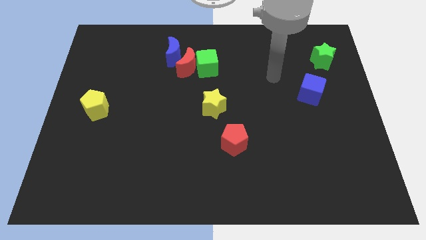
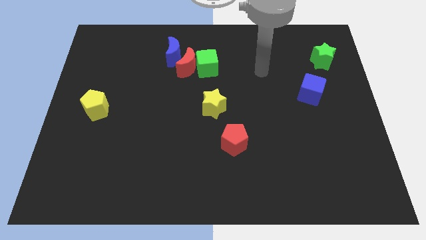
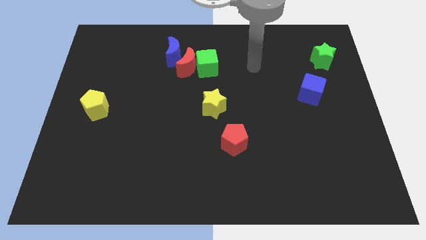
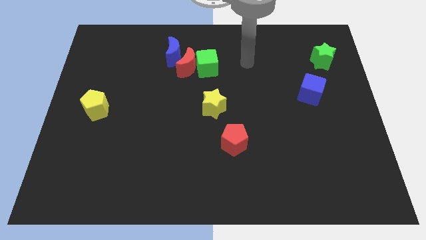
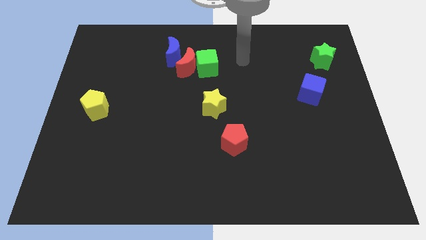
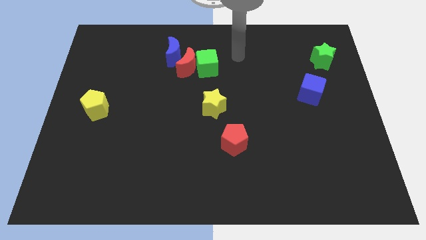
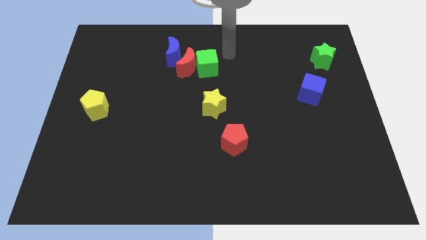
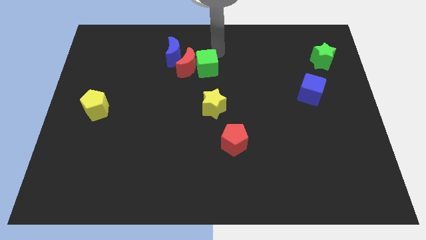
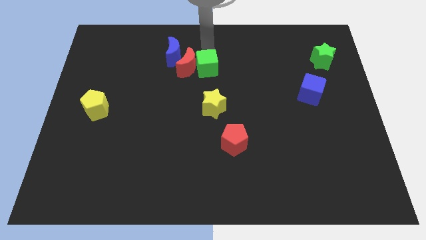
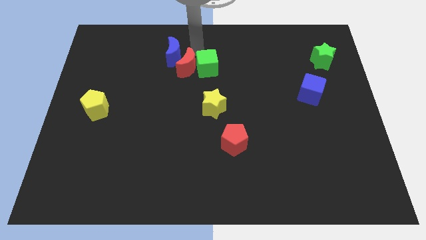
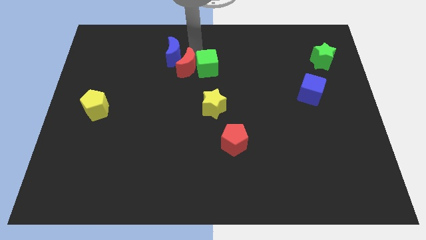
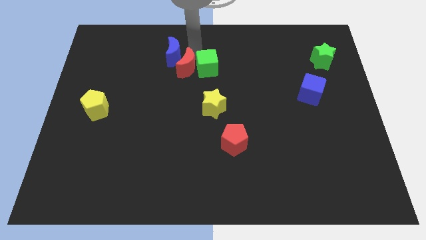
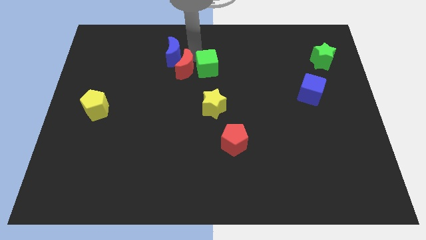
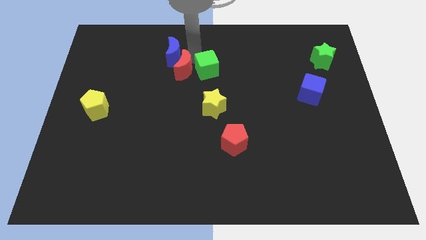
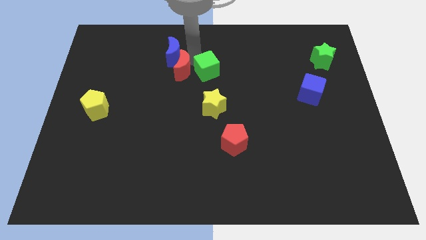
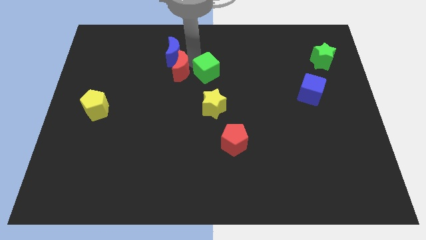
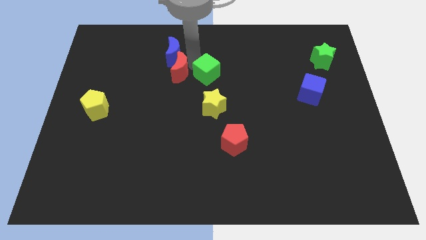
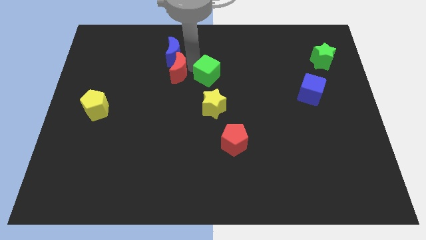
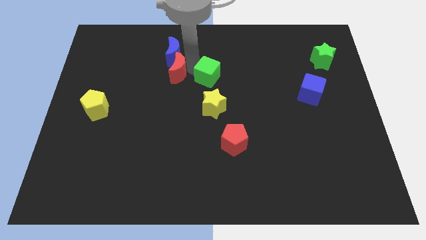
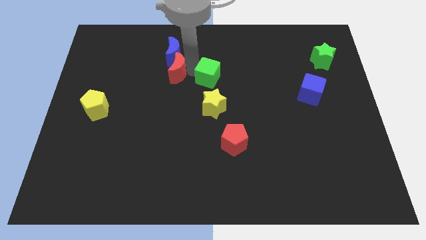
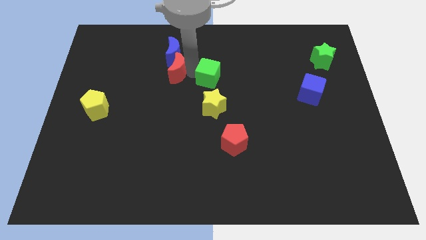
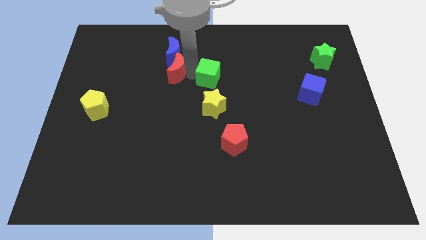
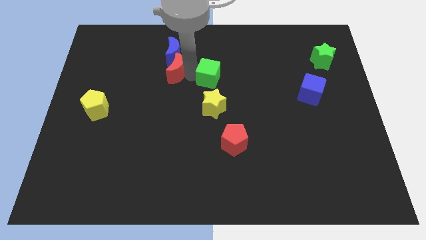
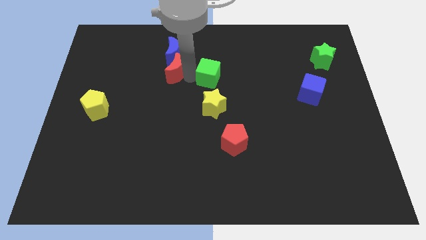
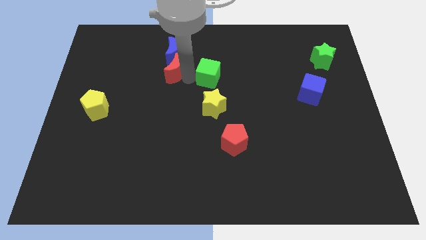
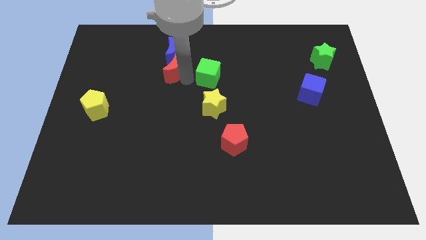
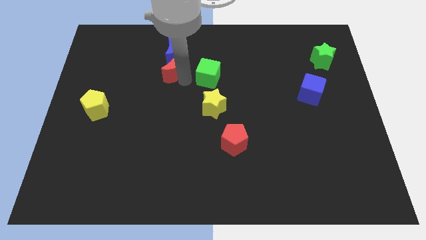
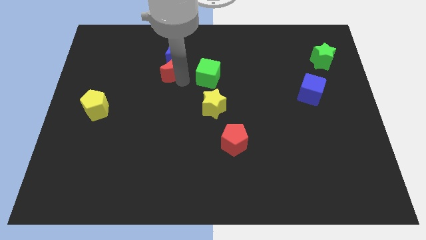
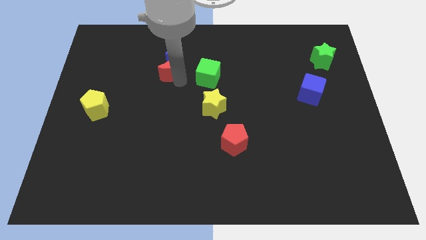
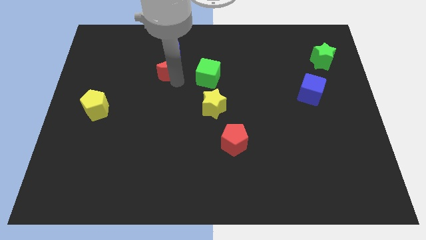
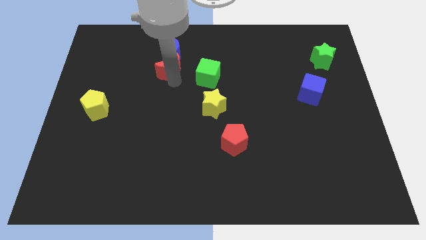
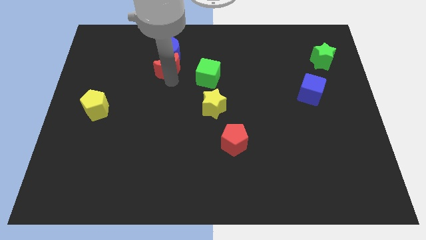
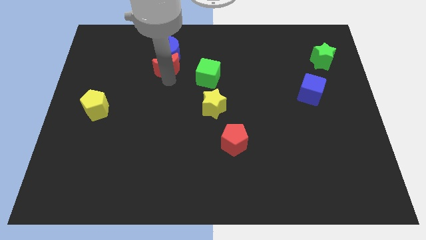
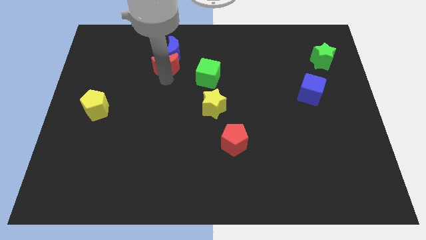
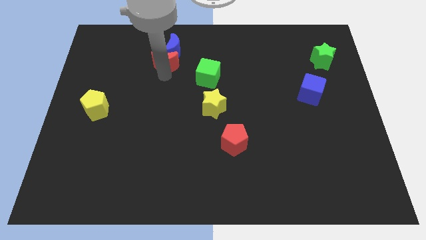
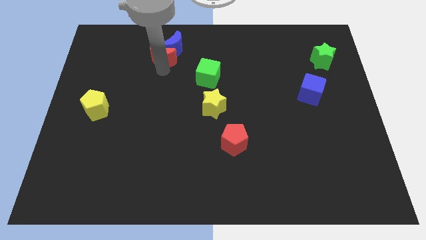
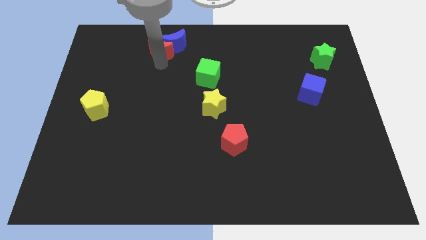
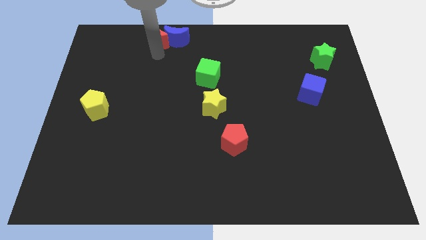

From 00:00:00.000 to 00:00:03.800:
pull the red moon apart from the green cube and blue moon

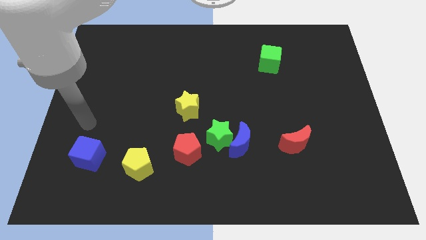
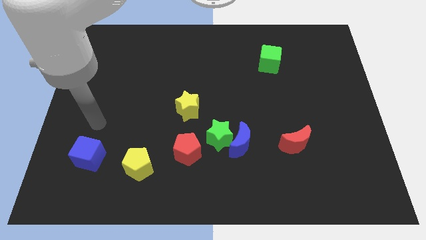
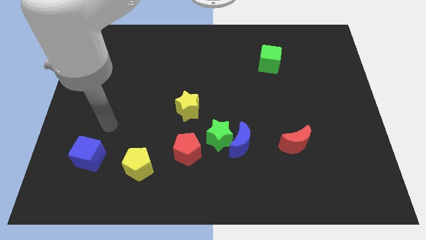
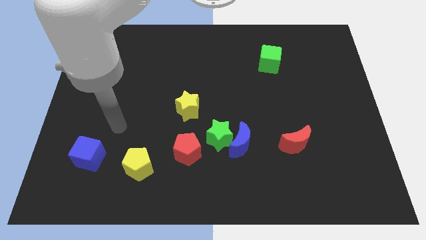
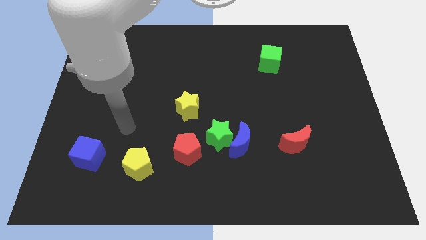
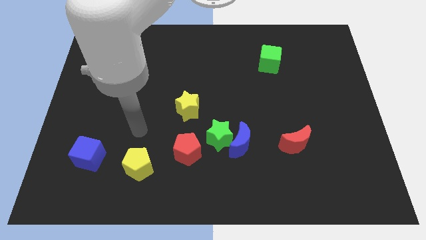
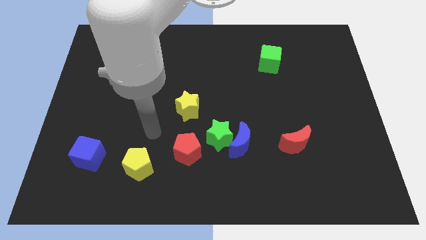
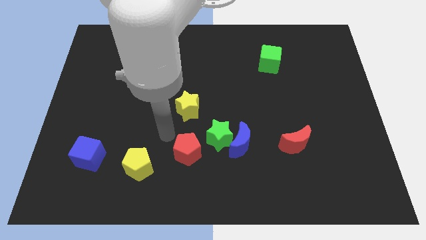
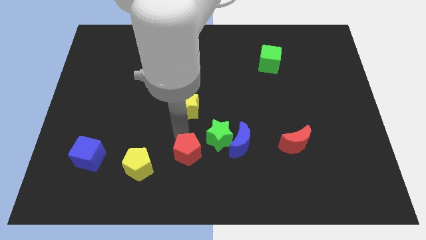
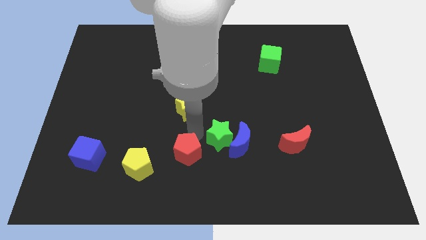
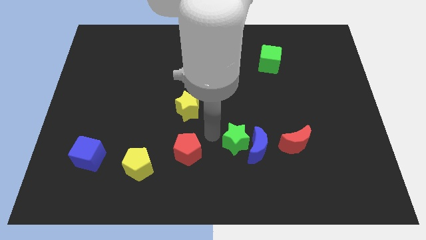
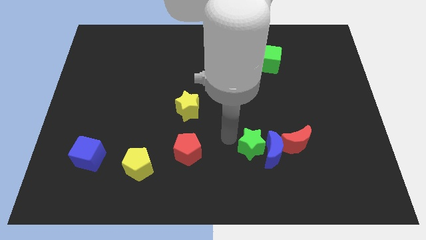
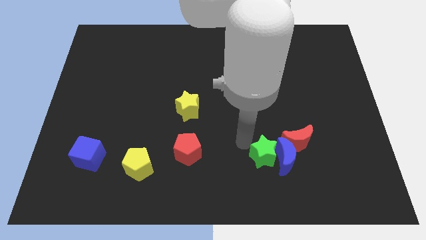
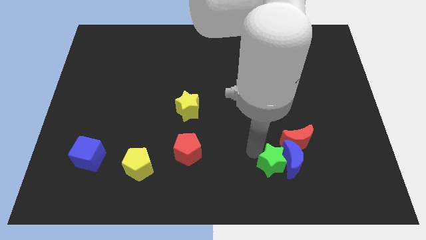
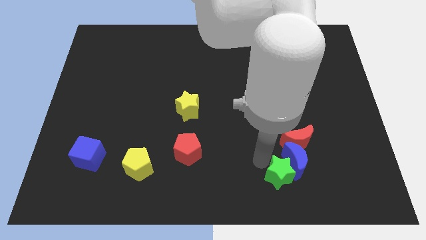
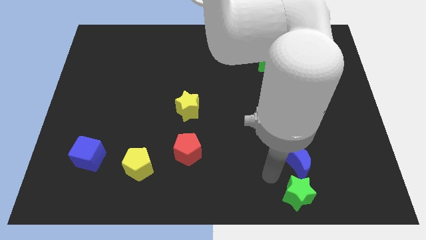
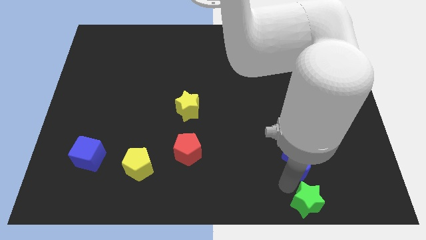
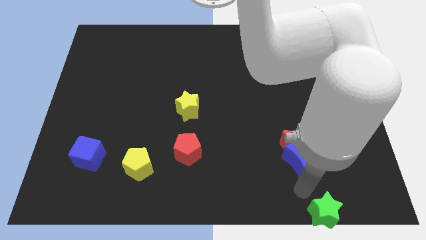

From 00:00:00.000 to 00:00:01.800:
move the blue moon away from the green star

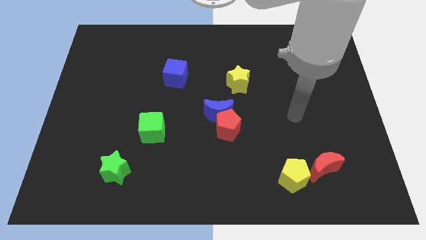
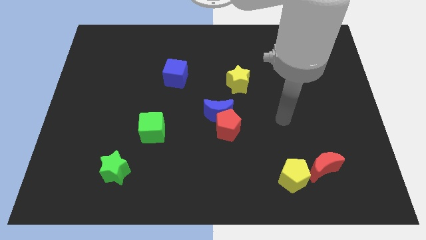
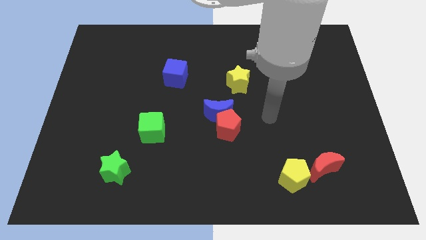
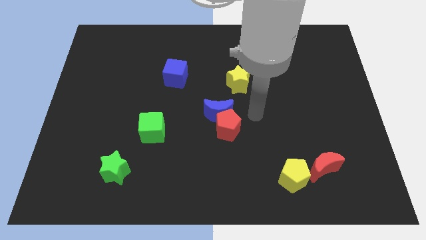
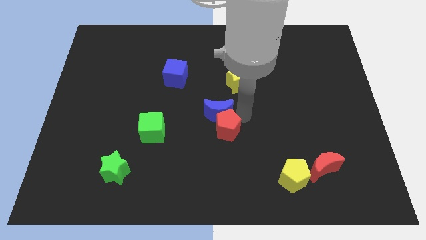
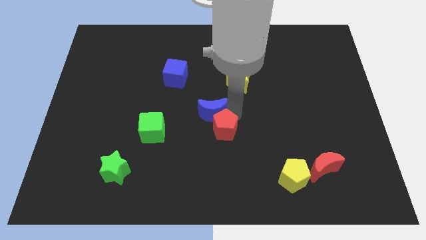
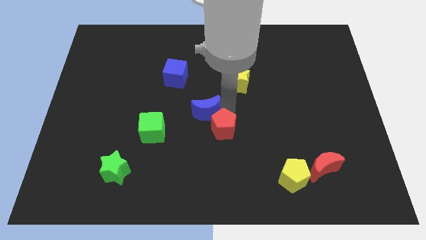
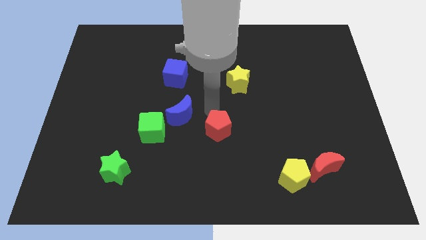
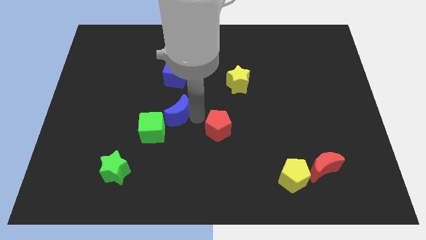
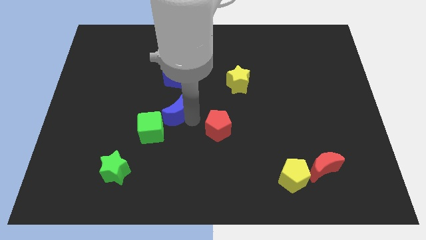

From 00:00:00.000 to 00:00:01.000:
pull the red pentagon apart from the blue moon

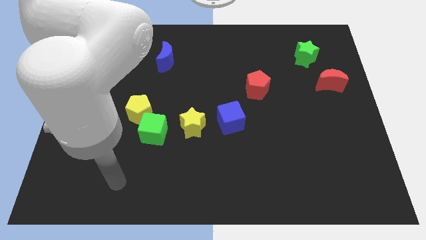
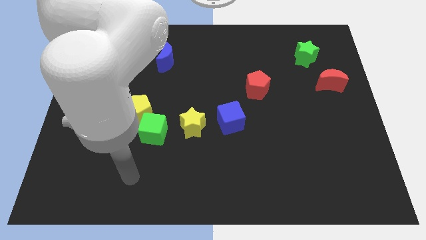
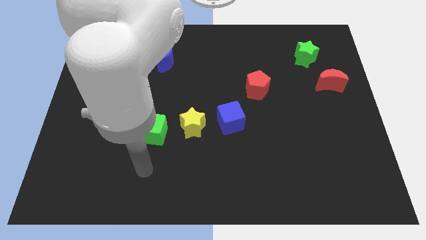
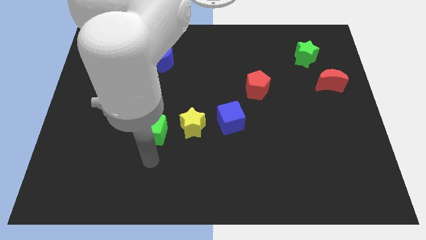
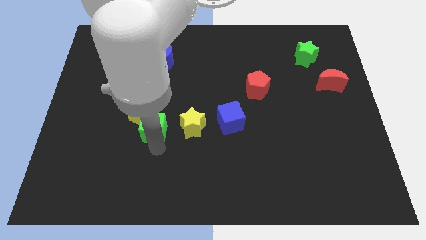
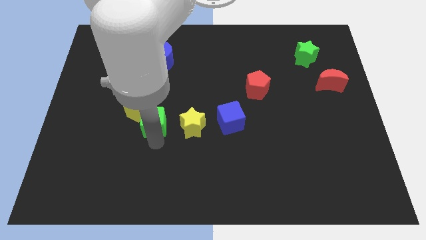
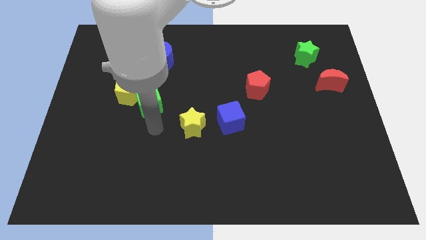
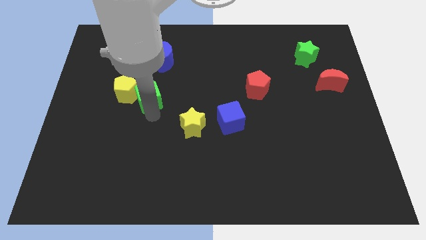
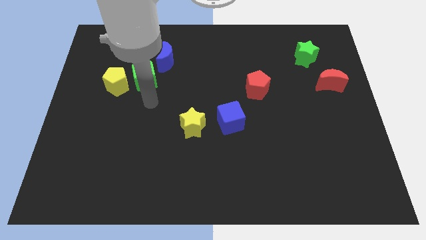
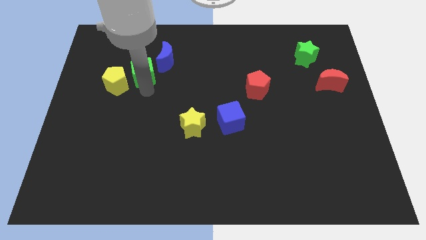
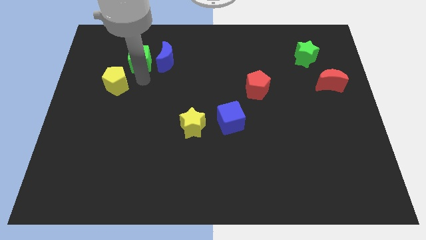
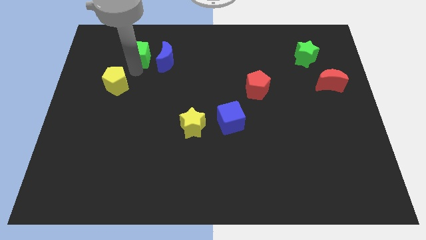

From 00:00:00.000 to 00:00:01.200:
move the yellow pentagon away from the green cube

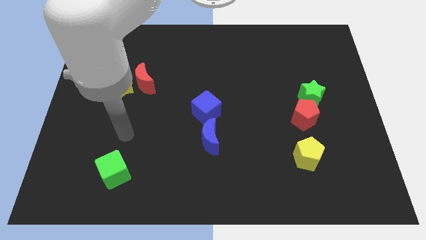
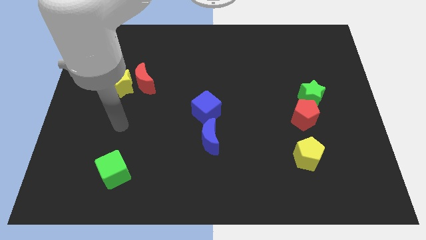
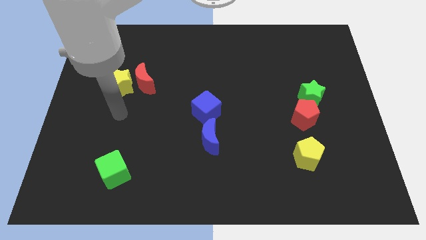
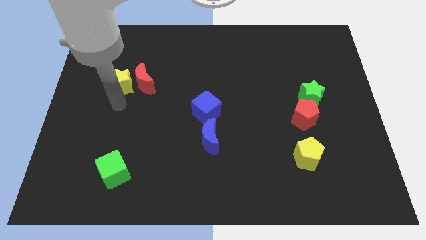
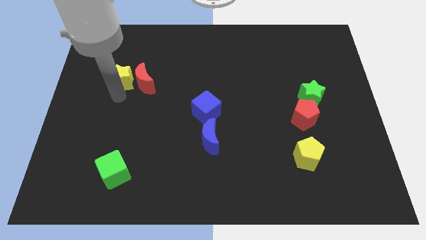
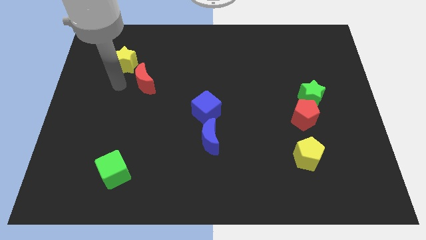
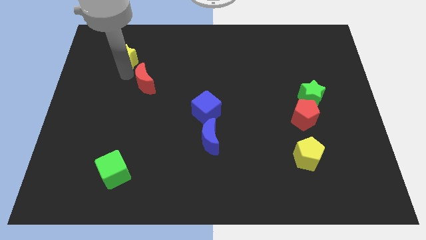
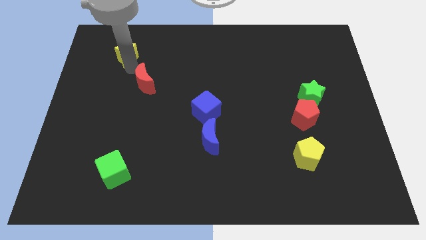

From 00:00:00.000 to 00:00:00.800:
separate the red moon from the yellow star

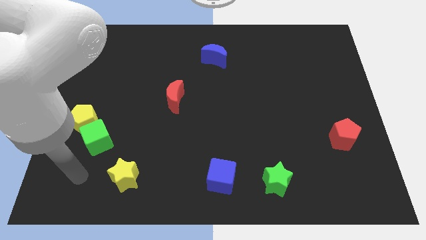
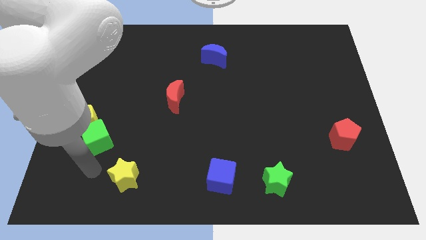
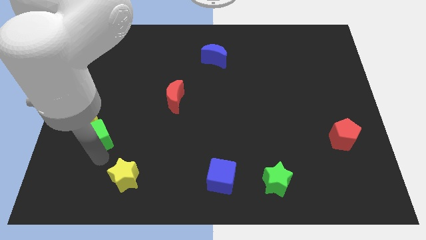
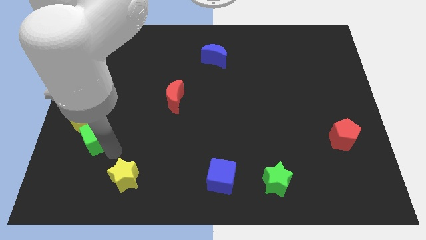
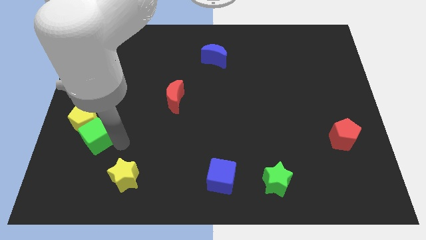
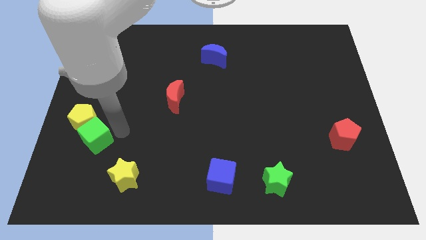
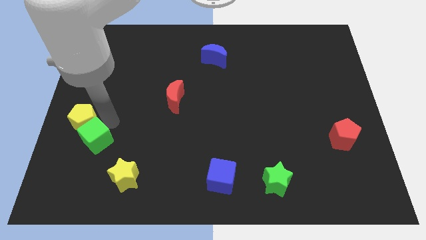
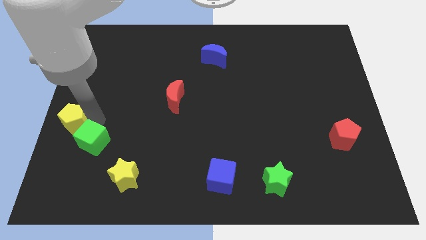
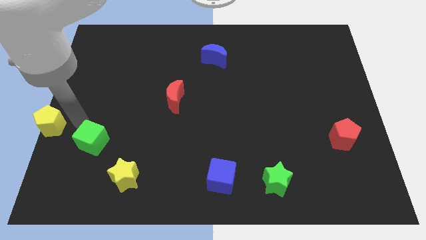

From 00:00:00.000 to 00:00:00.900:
separate the green cube from the yellow pentagon
